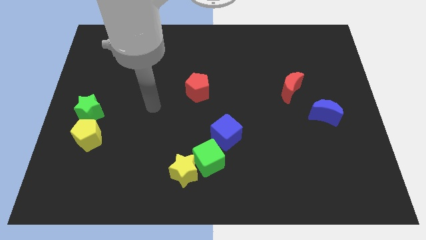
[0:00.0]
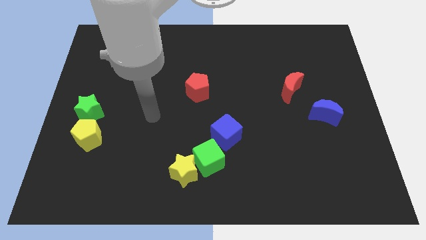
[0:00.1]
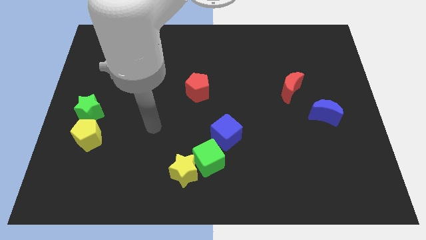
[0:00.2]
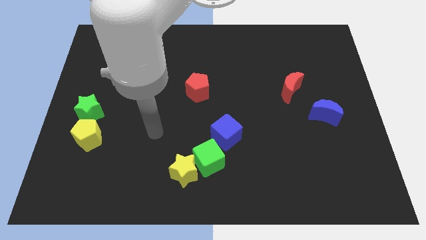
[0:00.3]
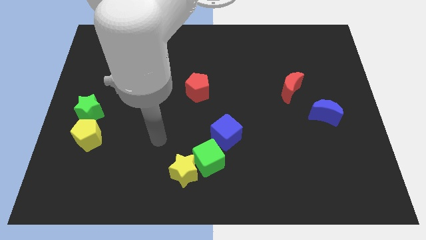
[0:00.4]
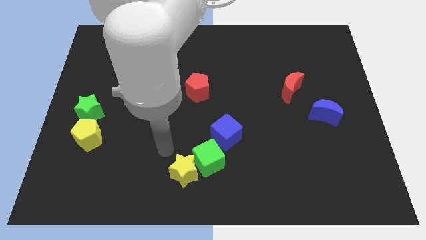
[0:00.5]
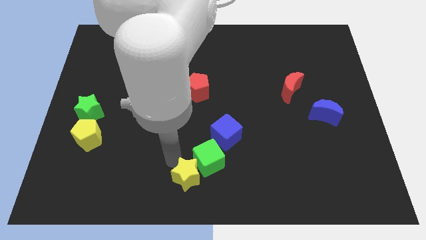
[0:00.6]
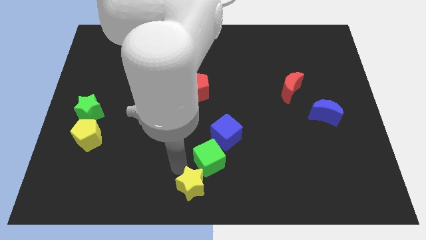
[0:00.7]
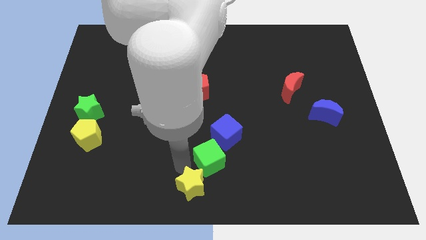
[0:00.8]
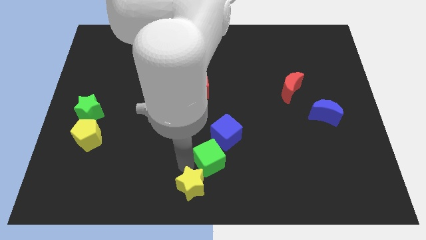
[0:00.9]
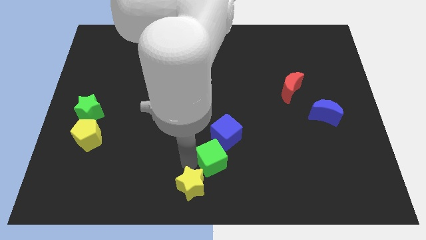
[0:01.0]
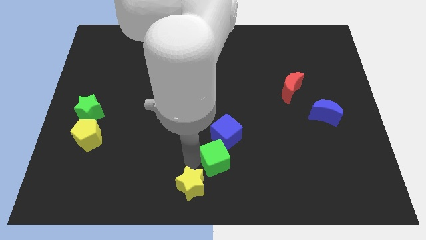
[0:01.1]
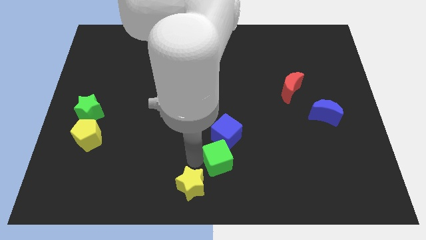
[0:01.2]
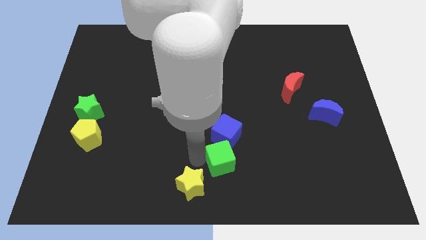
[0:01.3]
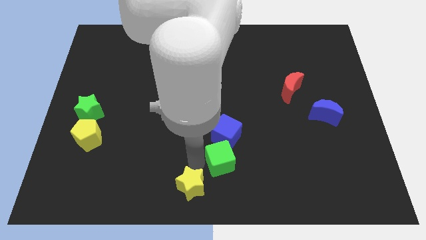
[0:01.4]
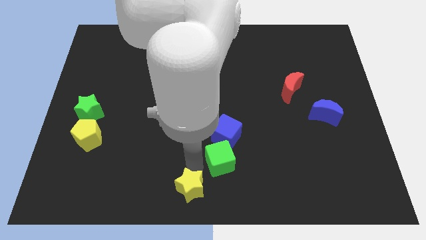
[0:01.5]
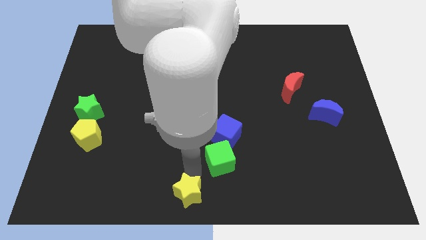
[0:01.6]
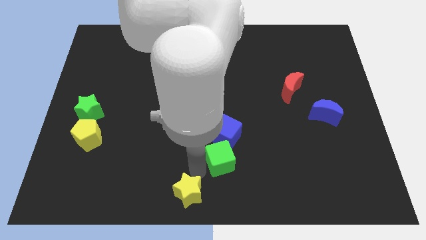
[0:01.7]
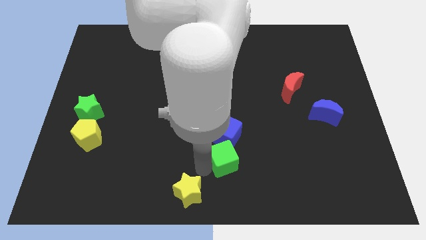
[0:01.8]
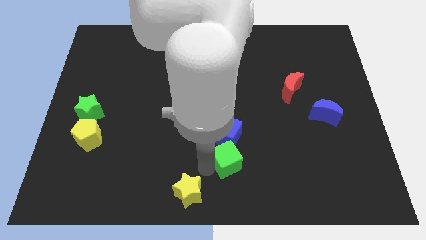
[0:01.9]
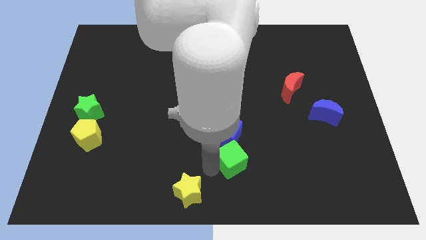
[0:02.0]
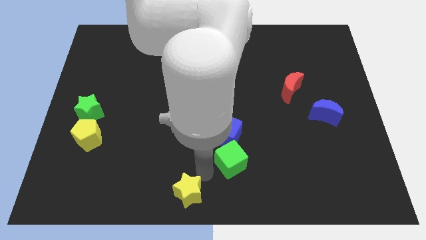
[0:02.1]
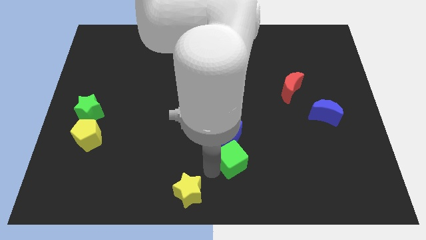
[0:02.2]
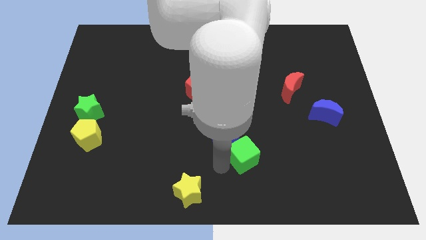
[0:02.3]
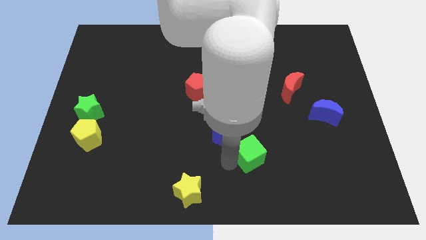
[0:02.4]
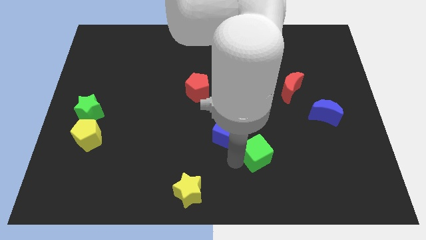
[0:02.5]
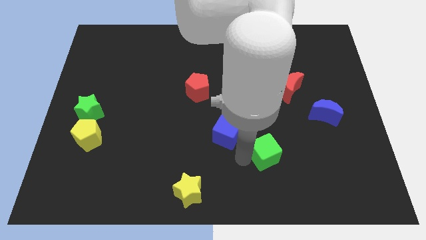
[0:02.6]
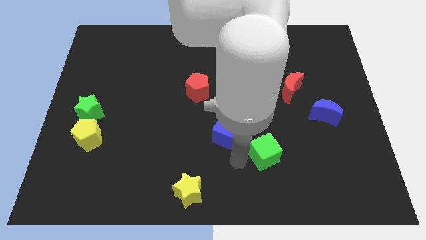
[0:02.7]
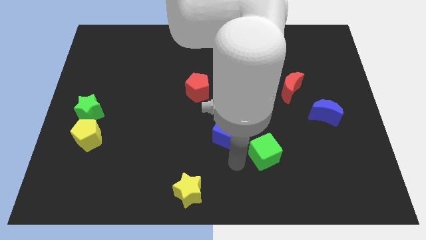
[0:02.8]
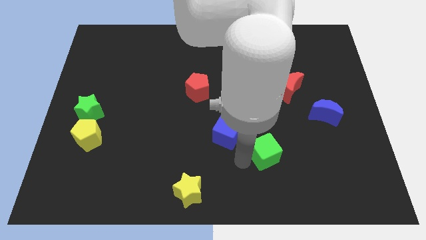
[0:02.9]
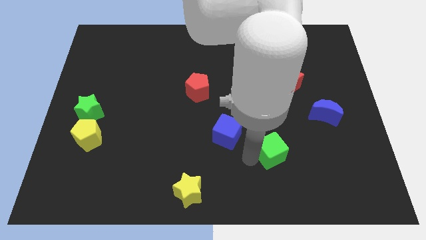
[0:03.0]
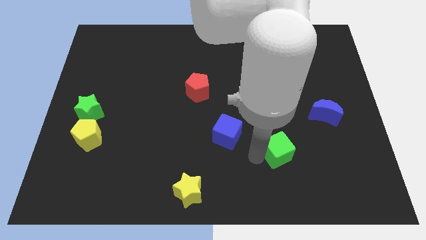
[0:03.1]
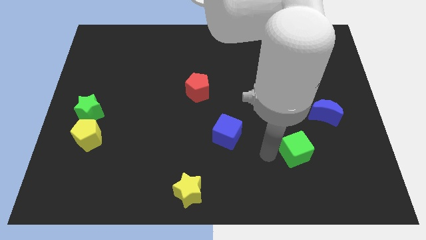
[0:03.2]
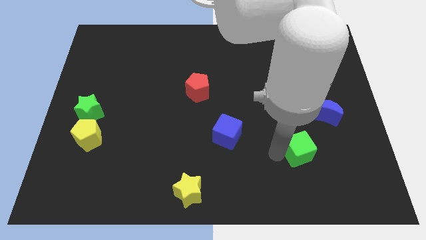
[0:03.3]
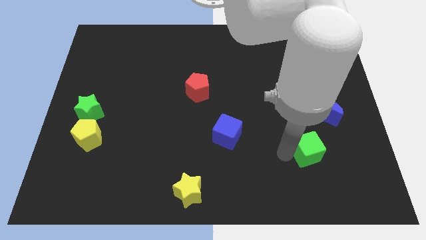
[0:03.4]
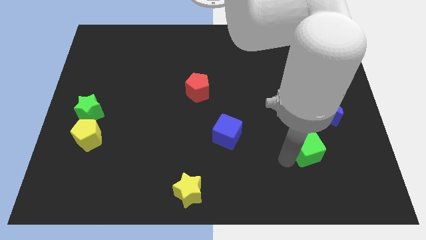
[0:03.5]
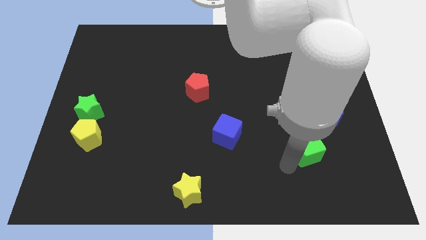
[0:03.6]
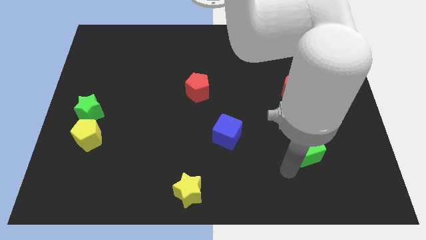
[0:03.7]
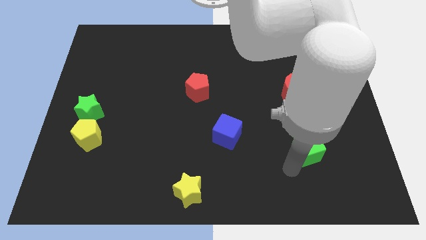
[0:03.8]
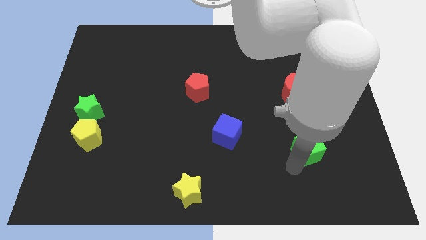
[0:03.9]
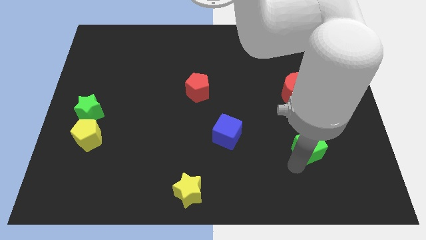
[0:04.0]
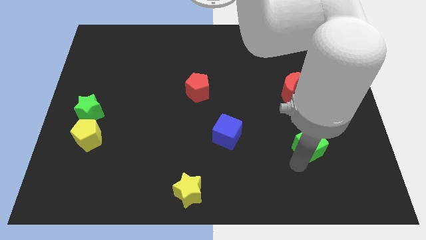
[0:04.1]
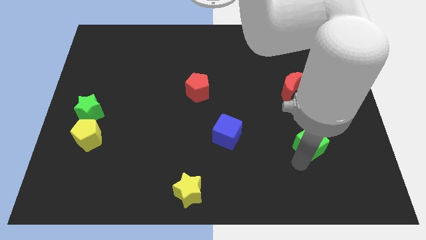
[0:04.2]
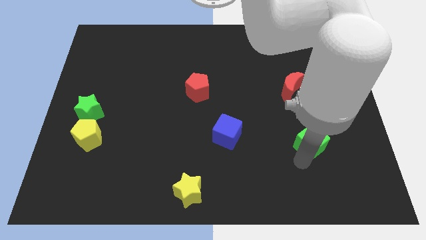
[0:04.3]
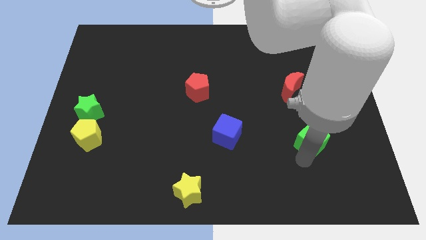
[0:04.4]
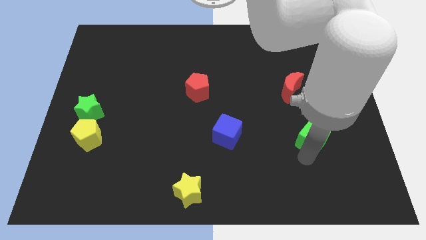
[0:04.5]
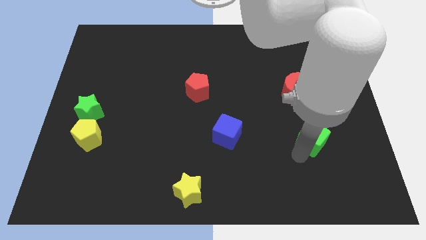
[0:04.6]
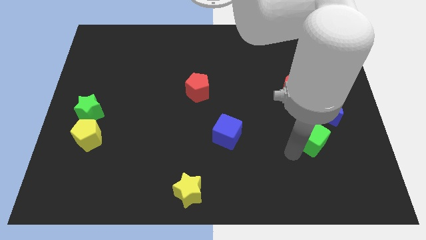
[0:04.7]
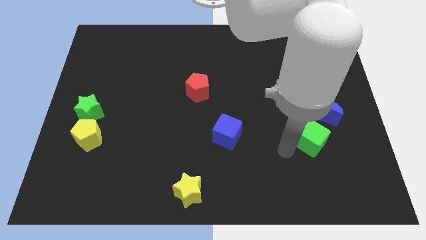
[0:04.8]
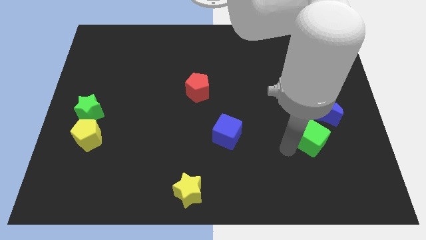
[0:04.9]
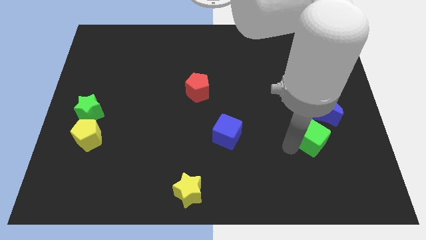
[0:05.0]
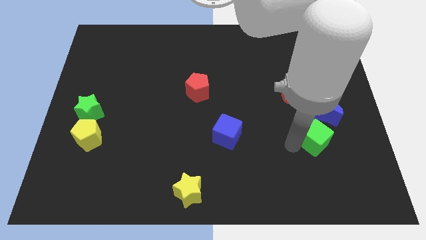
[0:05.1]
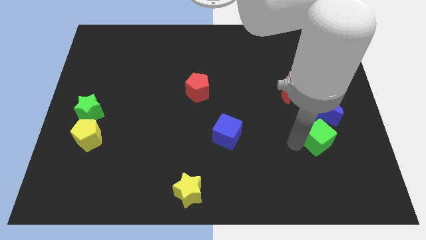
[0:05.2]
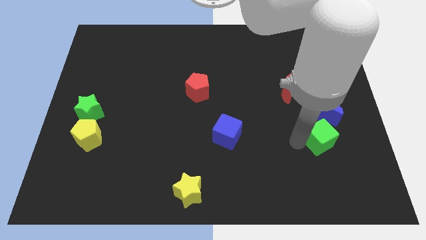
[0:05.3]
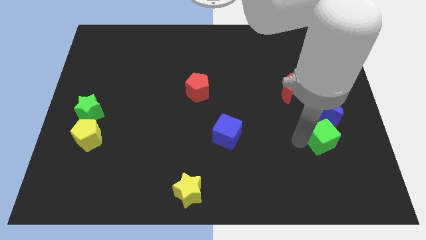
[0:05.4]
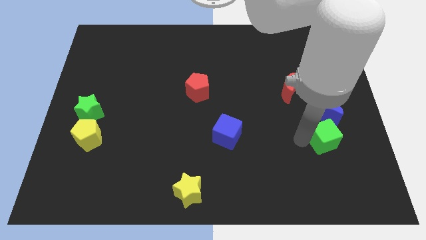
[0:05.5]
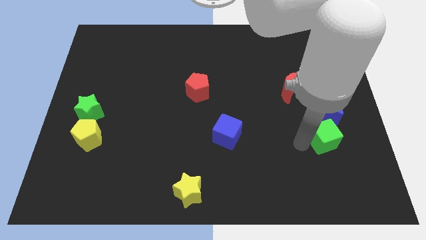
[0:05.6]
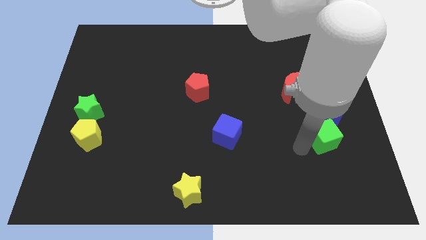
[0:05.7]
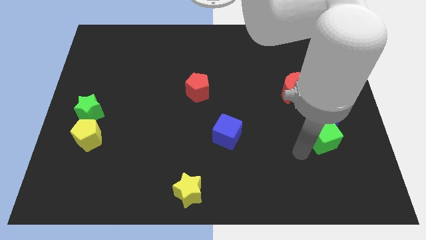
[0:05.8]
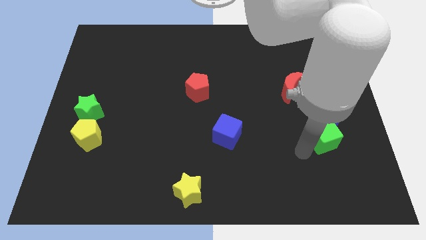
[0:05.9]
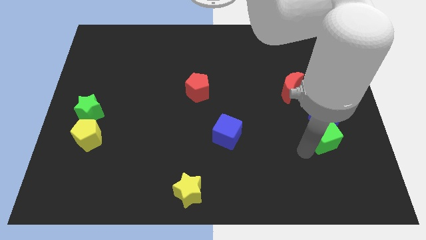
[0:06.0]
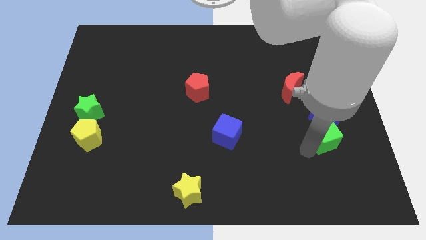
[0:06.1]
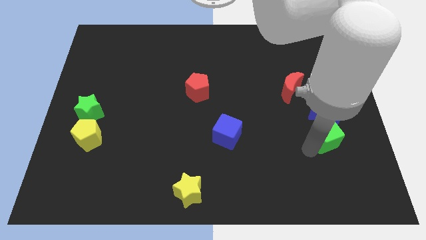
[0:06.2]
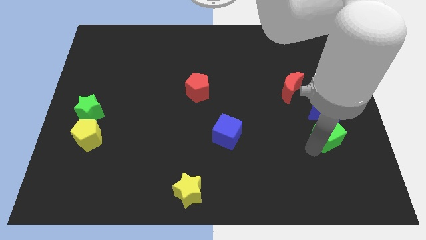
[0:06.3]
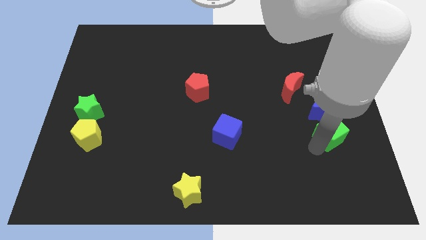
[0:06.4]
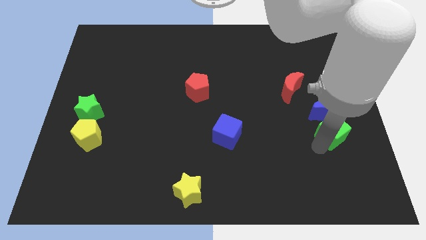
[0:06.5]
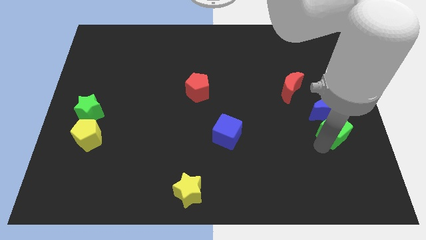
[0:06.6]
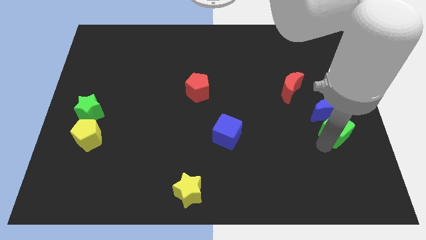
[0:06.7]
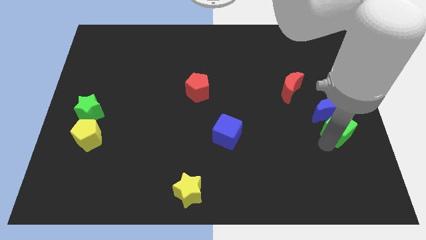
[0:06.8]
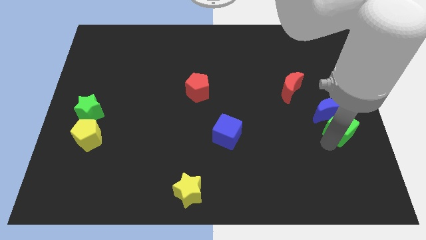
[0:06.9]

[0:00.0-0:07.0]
slide the green cube to the right side
